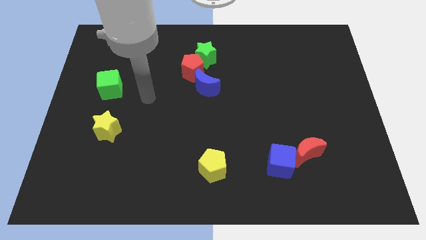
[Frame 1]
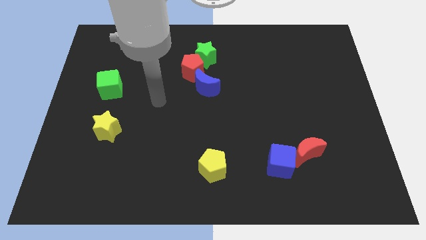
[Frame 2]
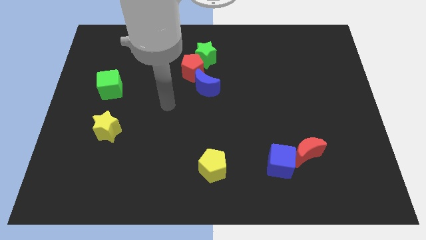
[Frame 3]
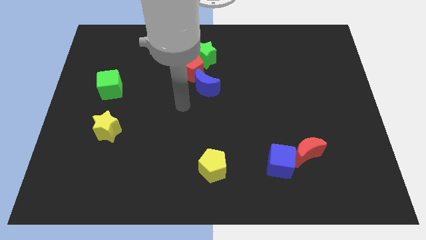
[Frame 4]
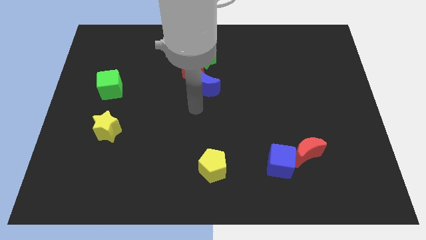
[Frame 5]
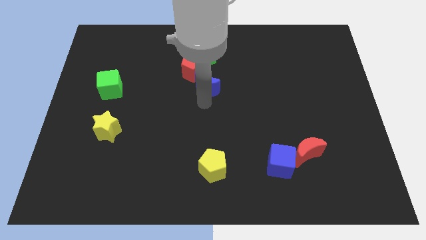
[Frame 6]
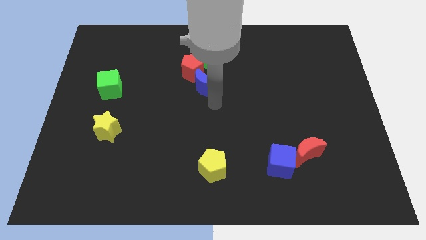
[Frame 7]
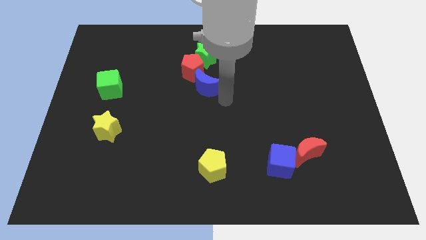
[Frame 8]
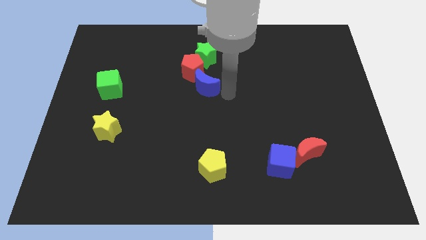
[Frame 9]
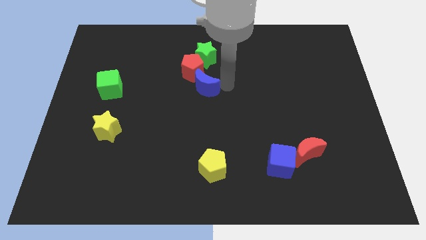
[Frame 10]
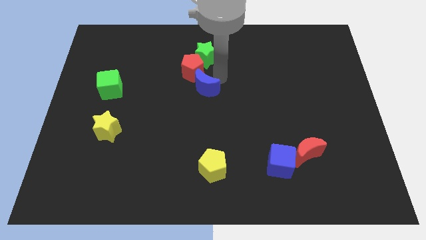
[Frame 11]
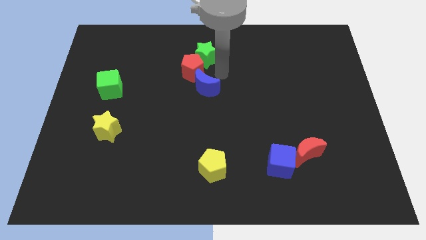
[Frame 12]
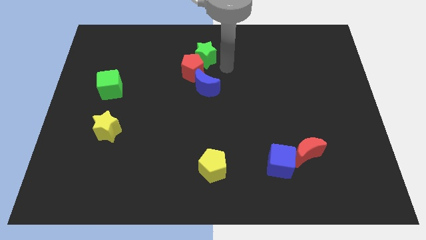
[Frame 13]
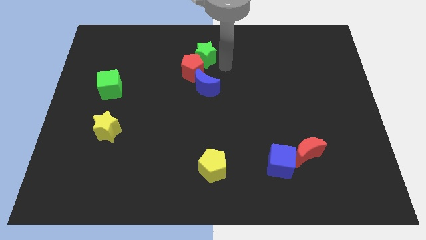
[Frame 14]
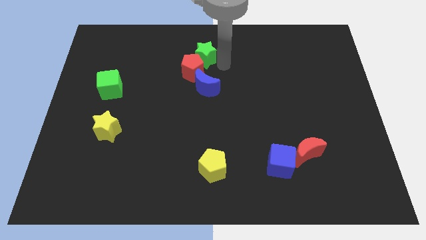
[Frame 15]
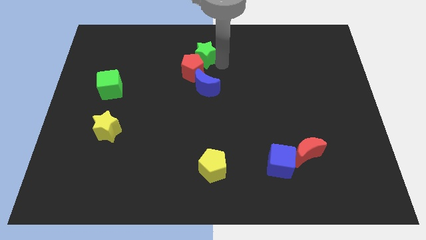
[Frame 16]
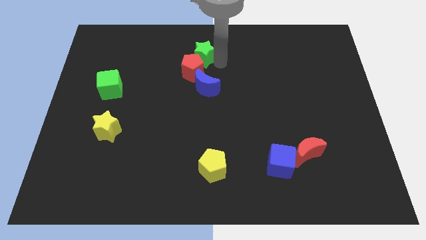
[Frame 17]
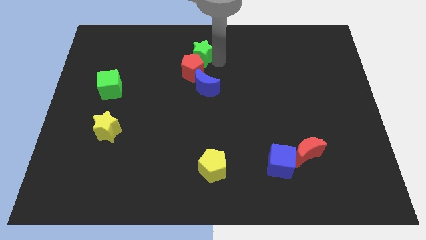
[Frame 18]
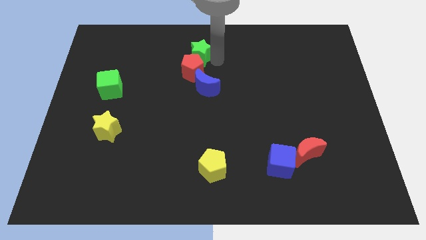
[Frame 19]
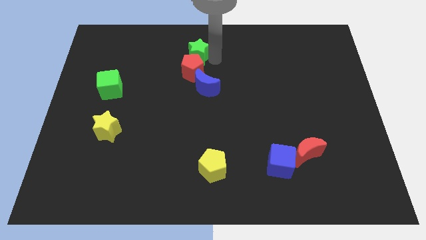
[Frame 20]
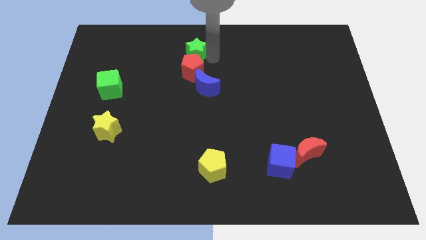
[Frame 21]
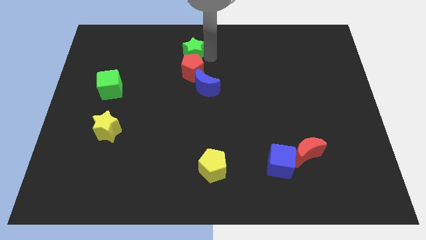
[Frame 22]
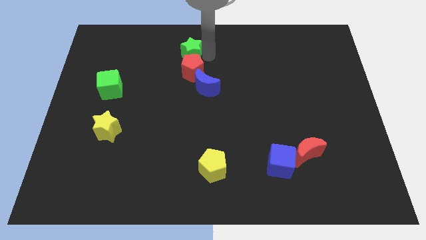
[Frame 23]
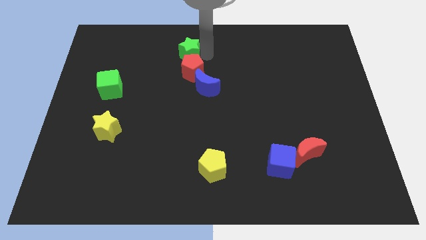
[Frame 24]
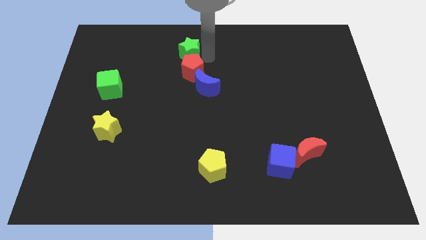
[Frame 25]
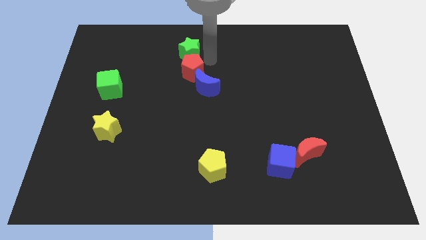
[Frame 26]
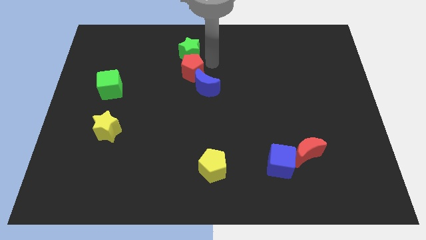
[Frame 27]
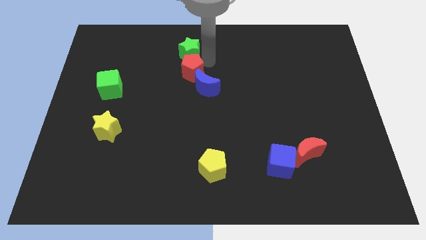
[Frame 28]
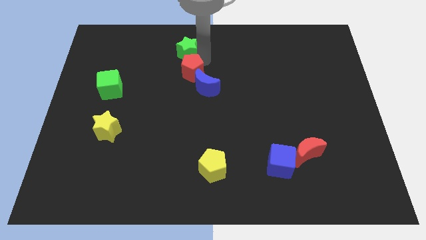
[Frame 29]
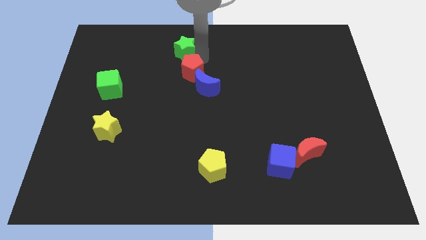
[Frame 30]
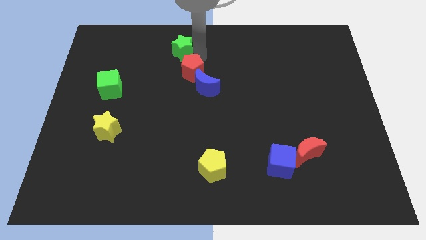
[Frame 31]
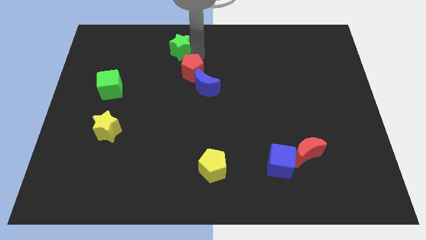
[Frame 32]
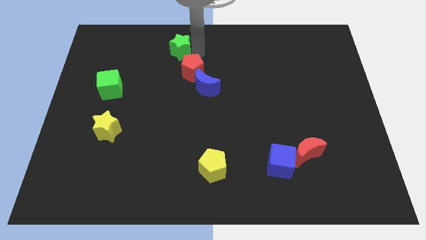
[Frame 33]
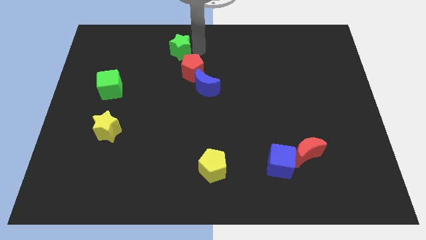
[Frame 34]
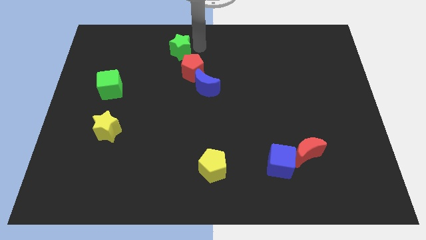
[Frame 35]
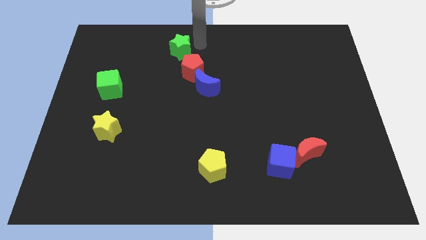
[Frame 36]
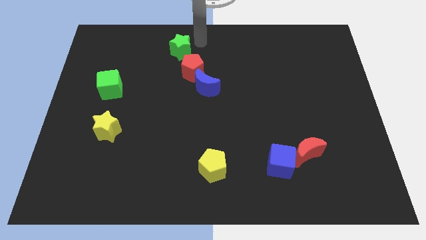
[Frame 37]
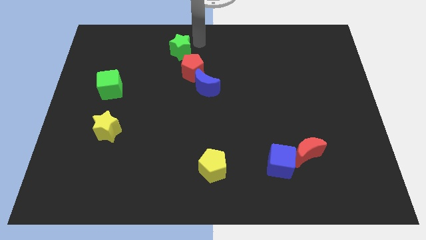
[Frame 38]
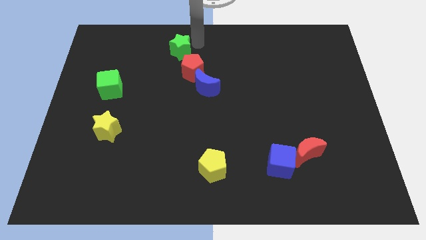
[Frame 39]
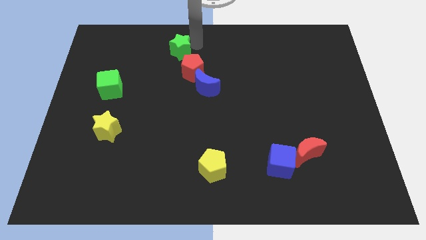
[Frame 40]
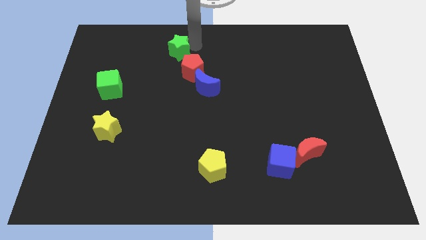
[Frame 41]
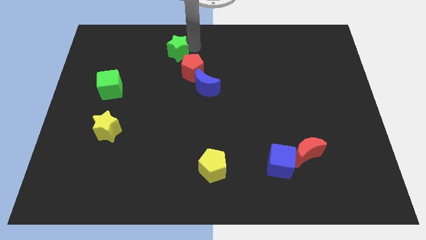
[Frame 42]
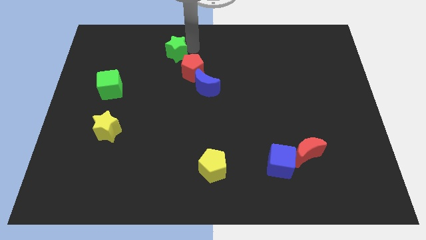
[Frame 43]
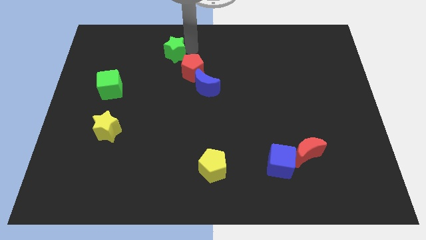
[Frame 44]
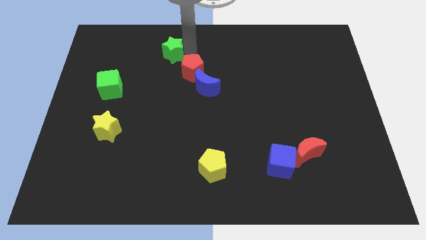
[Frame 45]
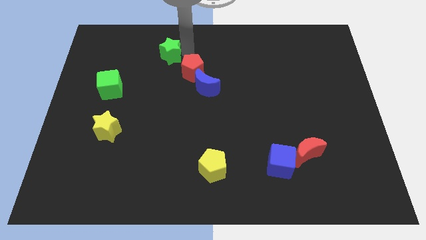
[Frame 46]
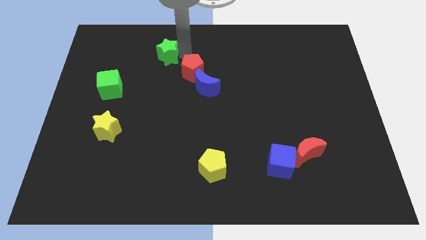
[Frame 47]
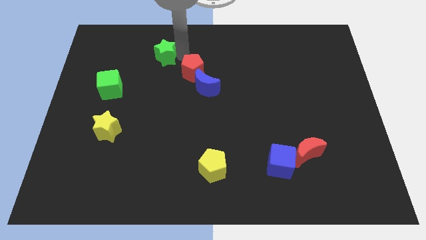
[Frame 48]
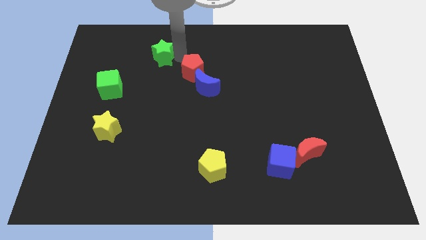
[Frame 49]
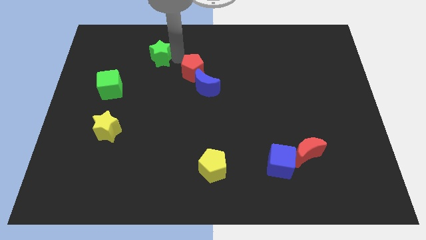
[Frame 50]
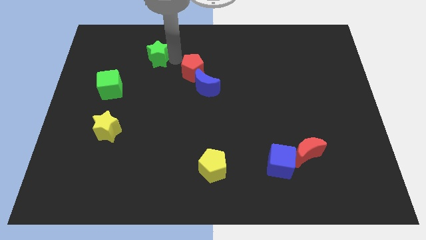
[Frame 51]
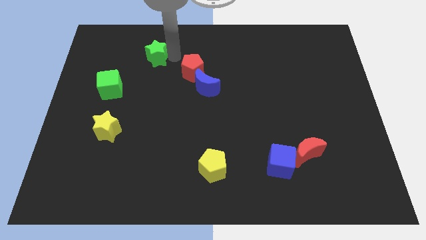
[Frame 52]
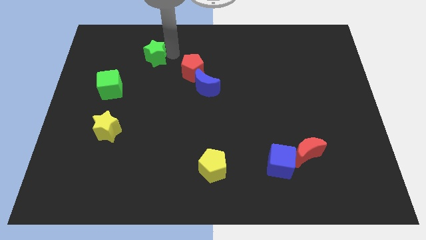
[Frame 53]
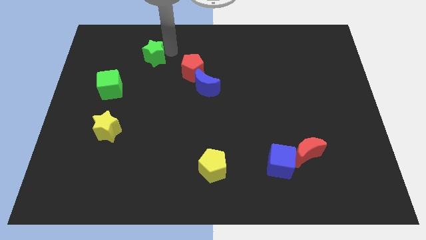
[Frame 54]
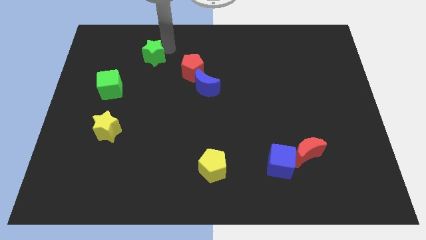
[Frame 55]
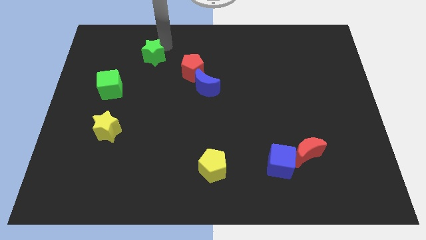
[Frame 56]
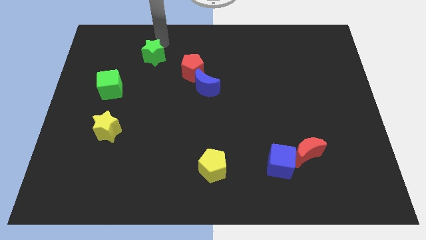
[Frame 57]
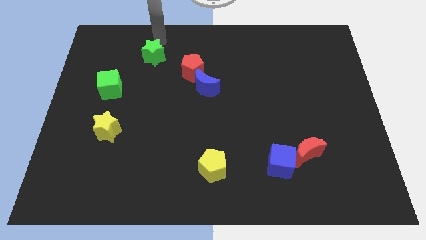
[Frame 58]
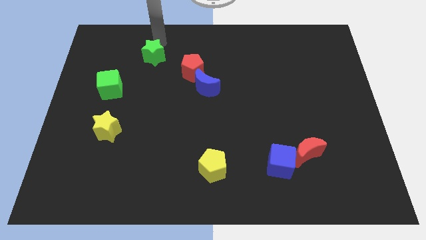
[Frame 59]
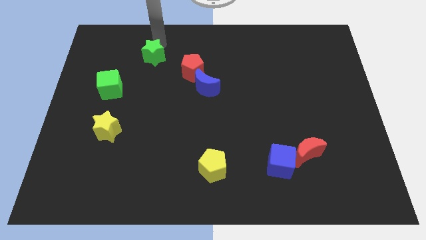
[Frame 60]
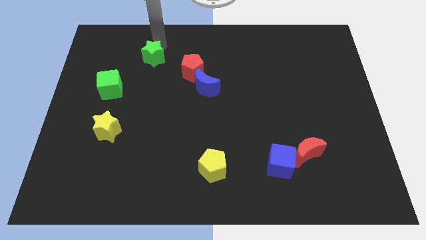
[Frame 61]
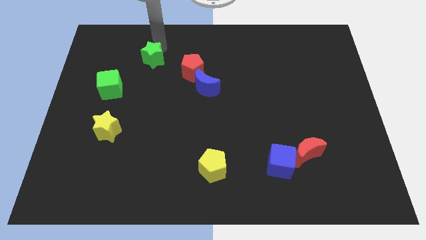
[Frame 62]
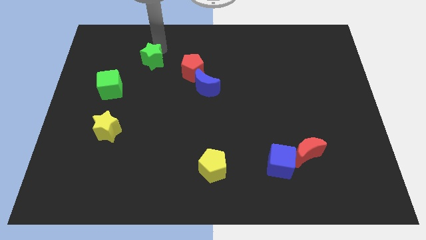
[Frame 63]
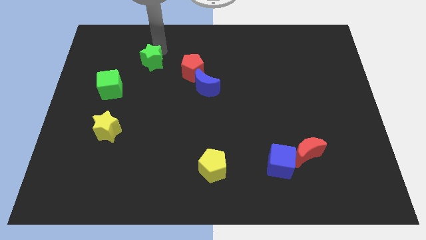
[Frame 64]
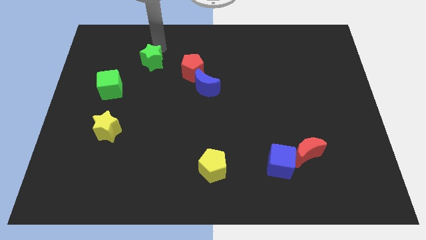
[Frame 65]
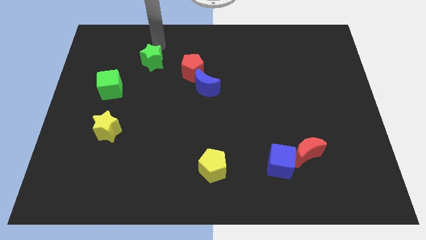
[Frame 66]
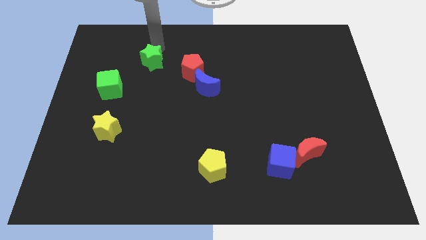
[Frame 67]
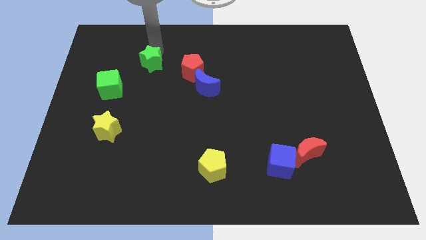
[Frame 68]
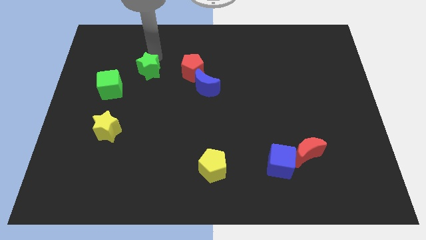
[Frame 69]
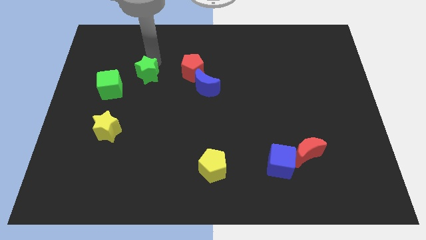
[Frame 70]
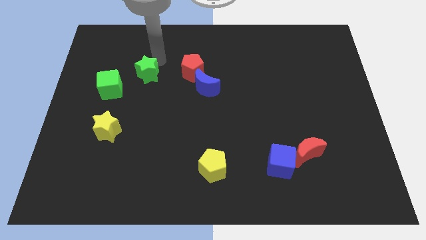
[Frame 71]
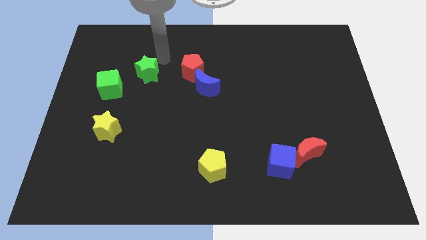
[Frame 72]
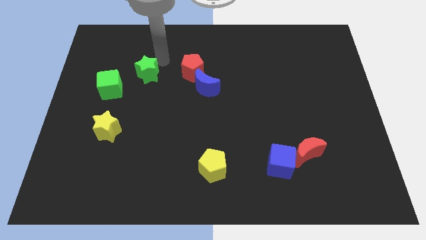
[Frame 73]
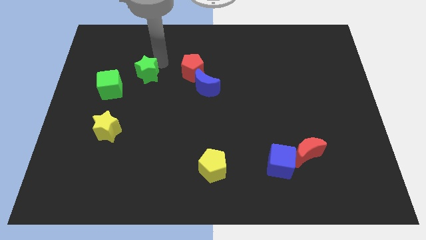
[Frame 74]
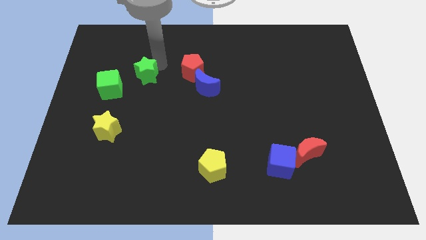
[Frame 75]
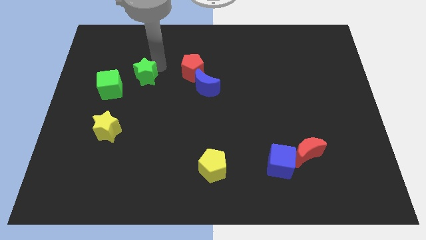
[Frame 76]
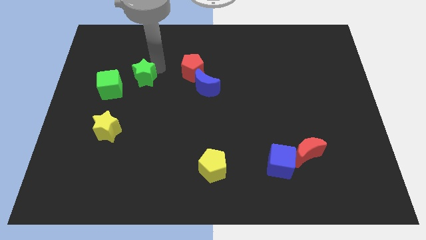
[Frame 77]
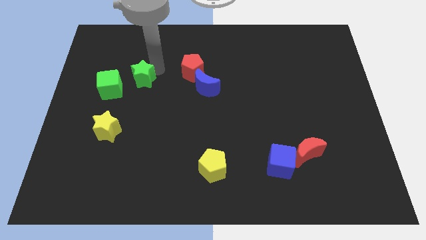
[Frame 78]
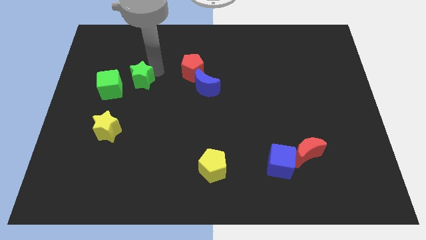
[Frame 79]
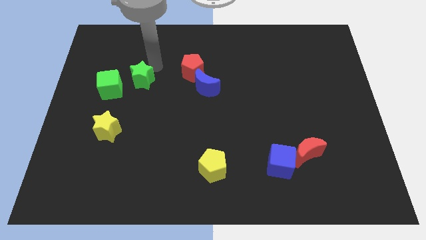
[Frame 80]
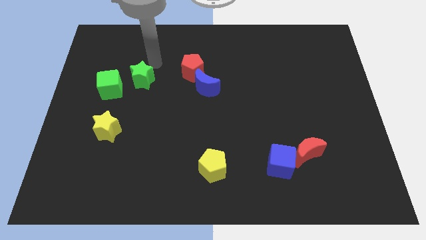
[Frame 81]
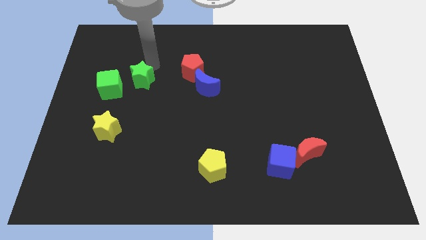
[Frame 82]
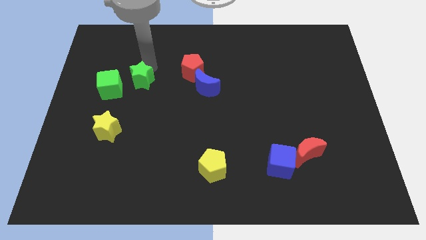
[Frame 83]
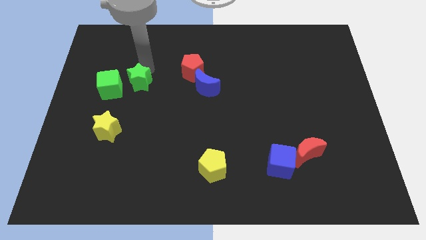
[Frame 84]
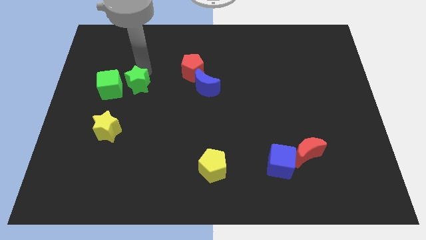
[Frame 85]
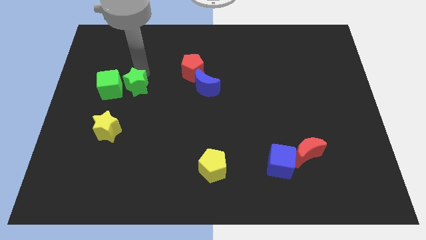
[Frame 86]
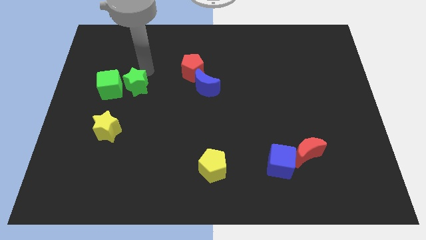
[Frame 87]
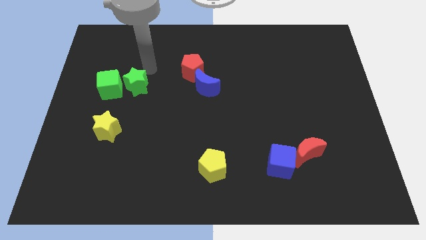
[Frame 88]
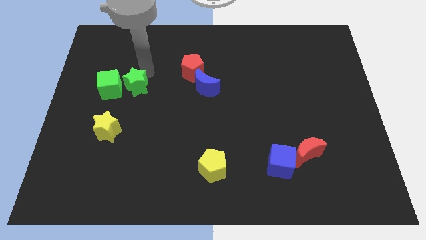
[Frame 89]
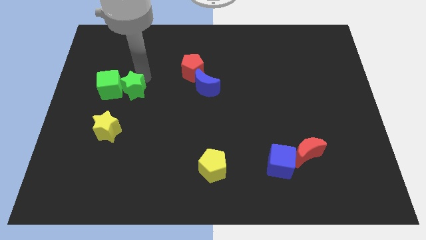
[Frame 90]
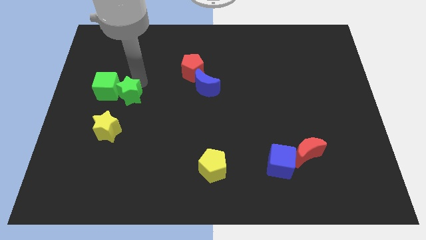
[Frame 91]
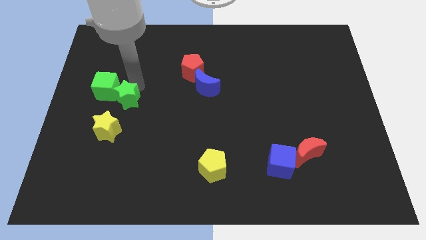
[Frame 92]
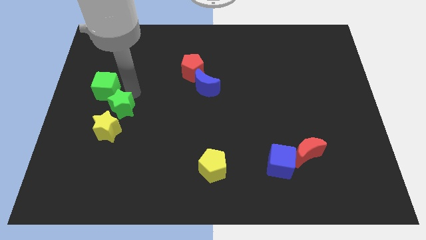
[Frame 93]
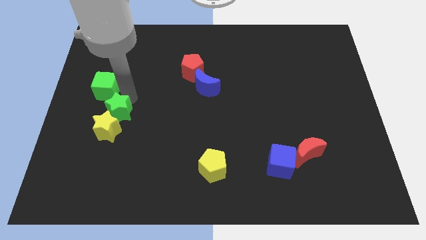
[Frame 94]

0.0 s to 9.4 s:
move the green star next to the yellow star
